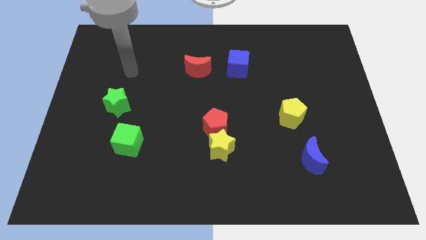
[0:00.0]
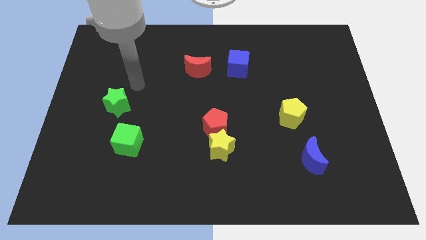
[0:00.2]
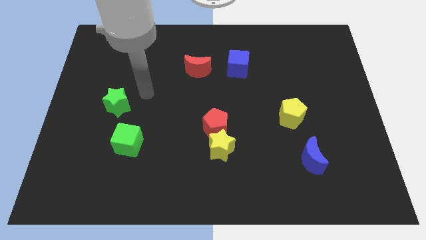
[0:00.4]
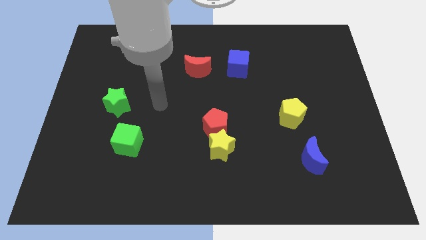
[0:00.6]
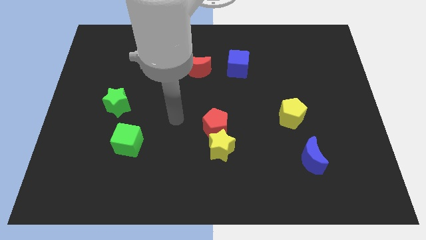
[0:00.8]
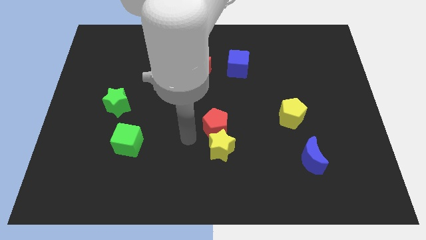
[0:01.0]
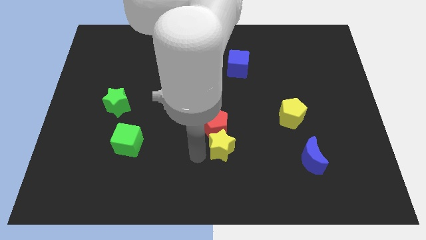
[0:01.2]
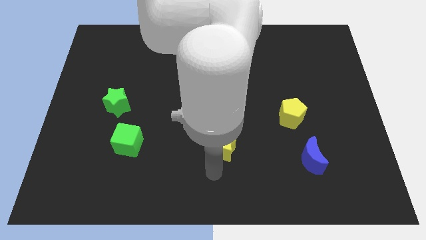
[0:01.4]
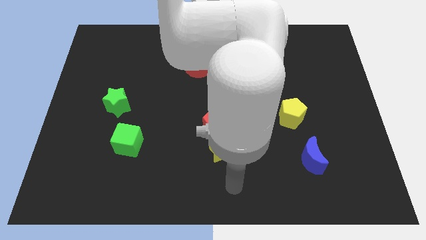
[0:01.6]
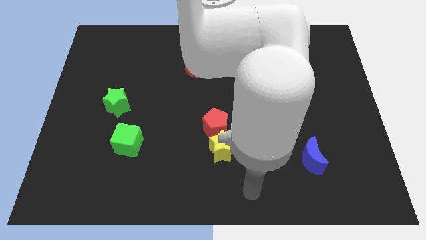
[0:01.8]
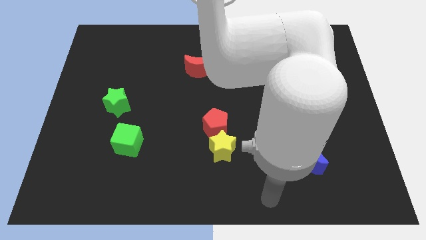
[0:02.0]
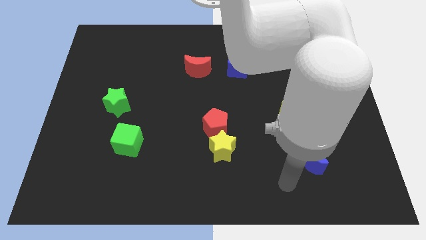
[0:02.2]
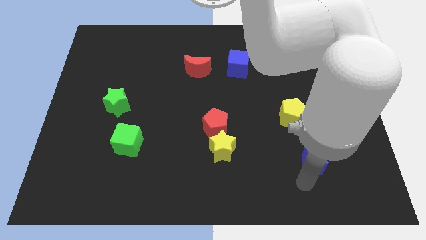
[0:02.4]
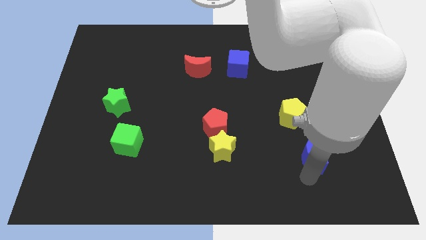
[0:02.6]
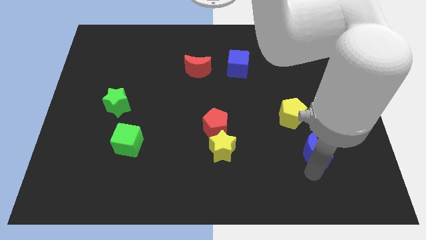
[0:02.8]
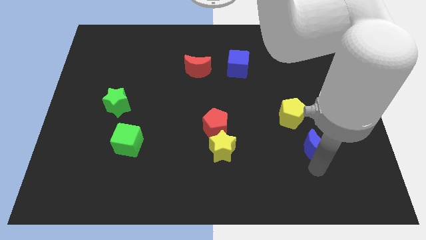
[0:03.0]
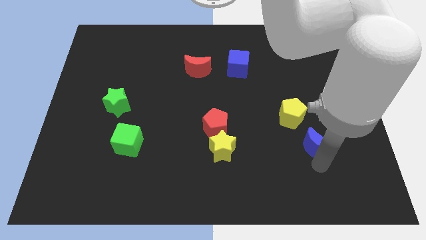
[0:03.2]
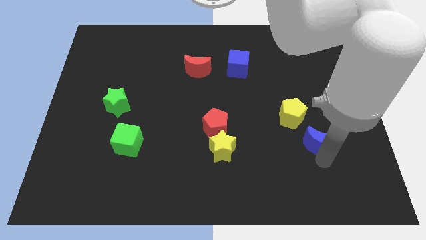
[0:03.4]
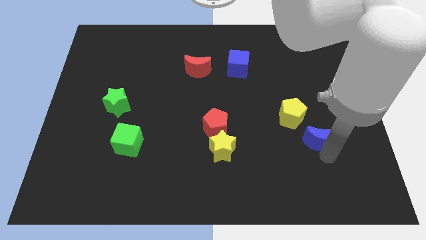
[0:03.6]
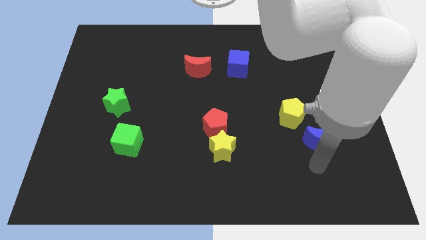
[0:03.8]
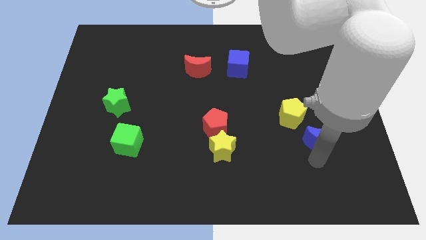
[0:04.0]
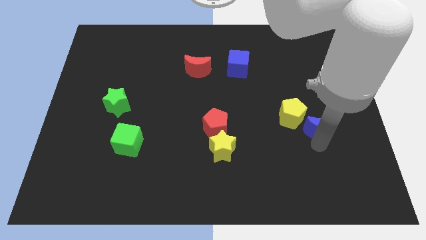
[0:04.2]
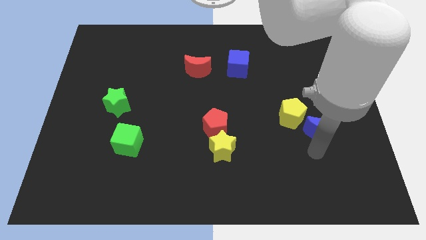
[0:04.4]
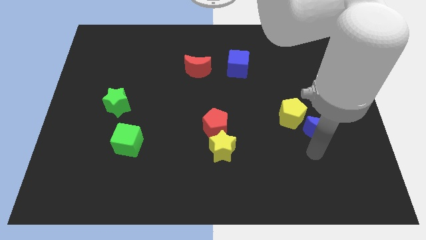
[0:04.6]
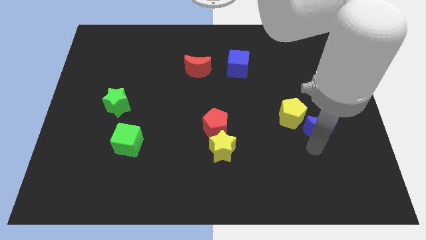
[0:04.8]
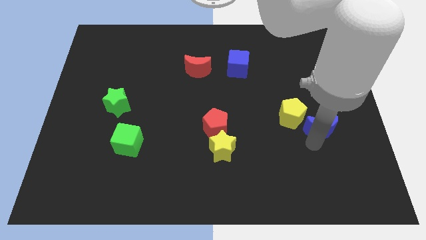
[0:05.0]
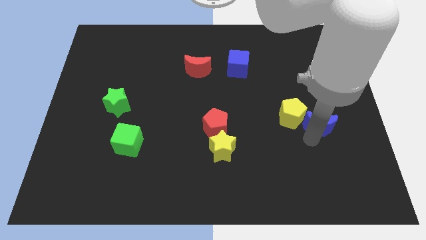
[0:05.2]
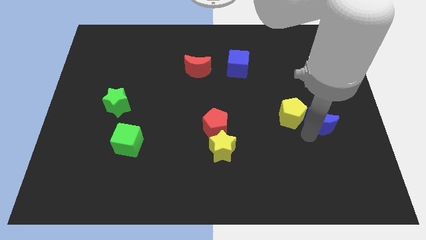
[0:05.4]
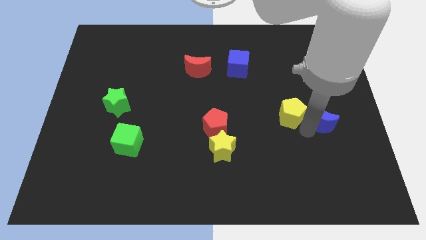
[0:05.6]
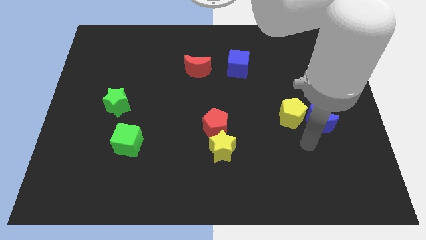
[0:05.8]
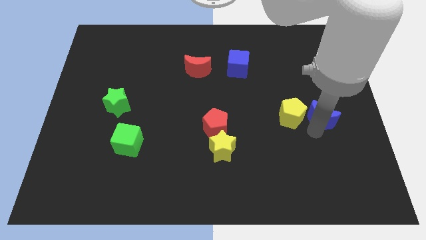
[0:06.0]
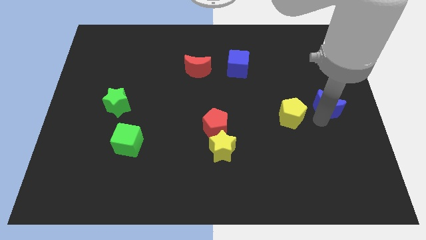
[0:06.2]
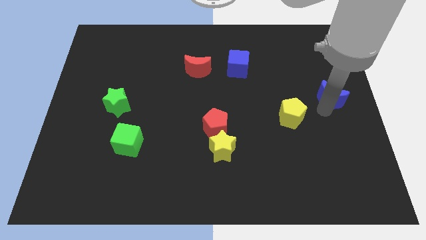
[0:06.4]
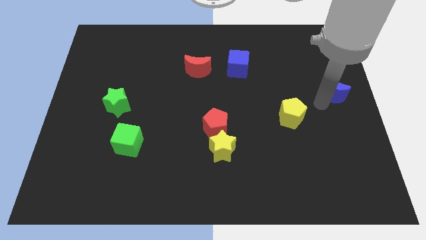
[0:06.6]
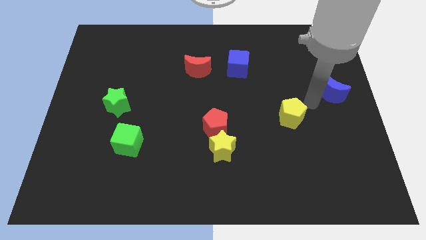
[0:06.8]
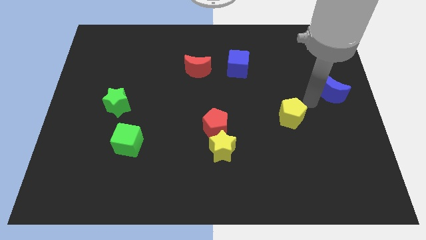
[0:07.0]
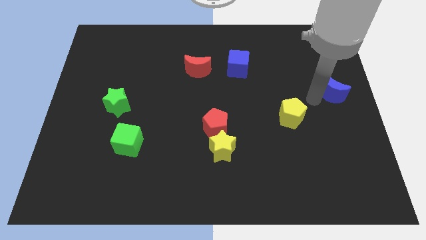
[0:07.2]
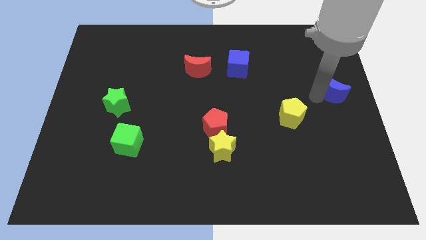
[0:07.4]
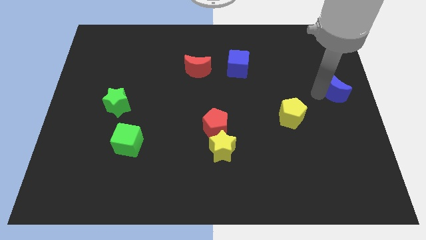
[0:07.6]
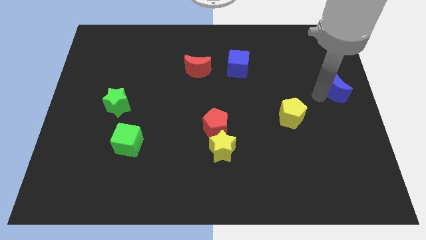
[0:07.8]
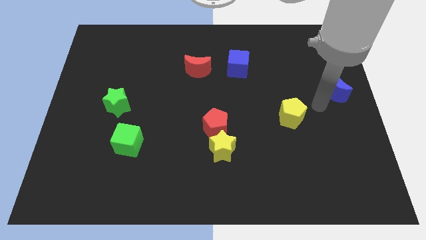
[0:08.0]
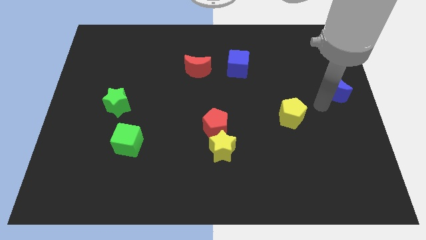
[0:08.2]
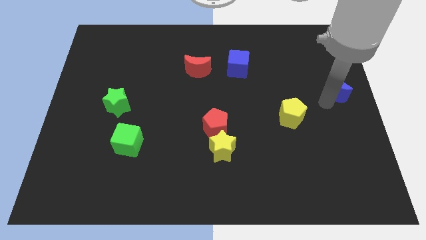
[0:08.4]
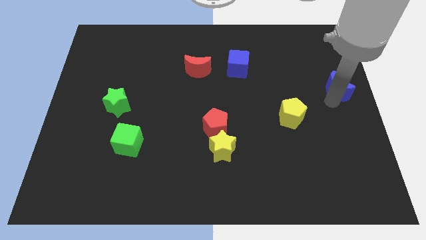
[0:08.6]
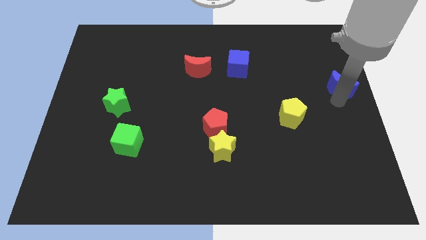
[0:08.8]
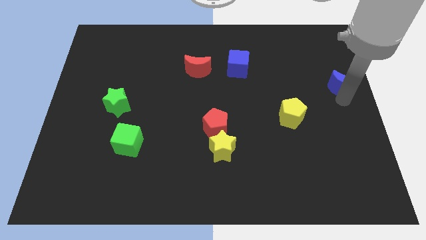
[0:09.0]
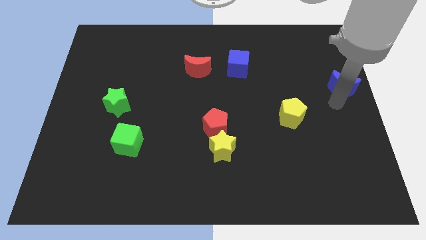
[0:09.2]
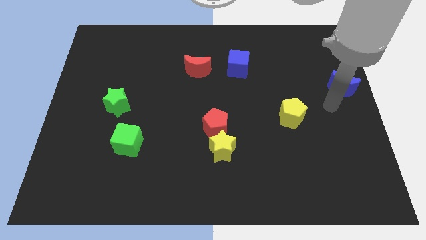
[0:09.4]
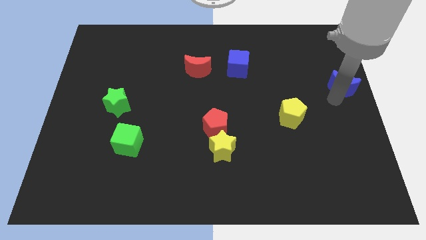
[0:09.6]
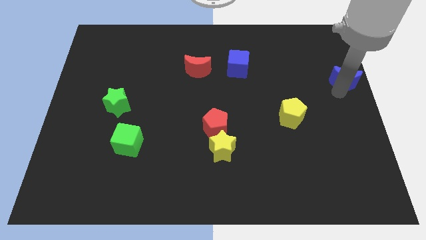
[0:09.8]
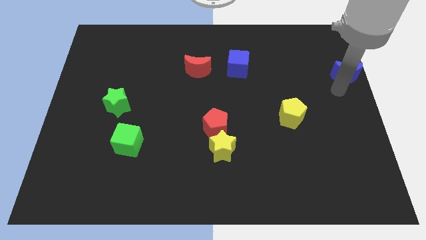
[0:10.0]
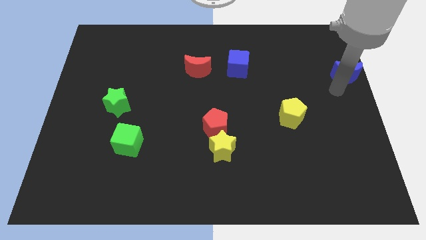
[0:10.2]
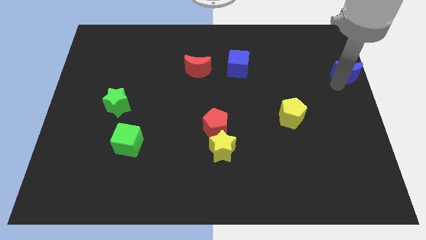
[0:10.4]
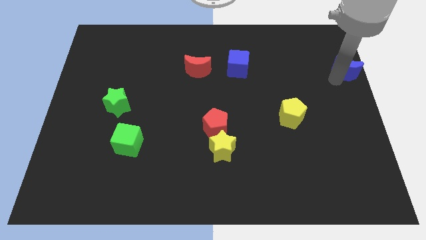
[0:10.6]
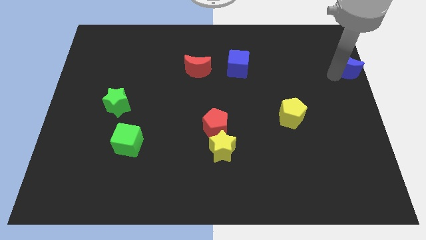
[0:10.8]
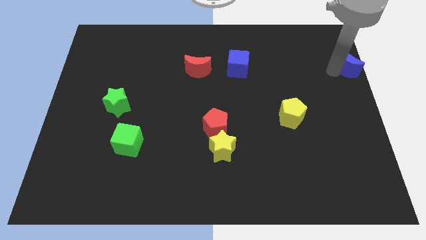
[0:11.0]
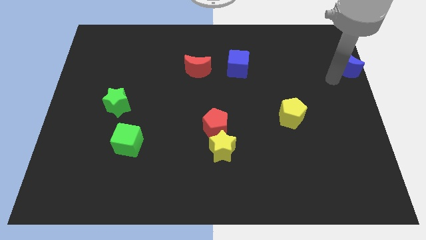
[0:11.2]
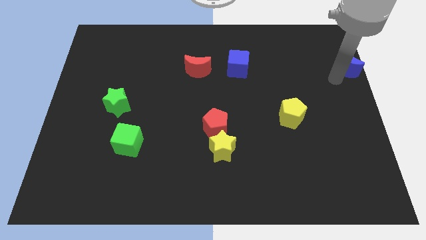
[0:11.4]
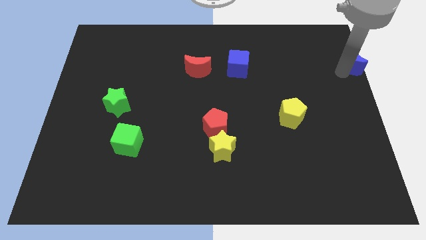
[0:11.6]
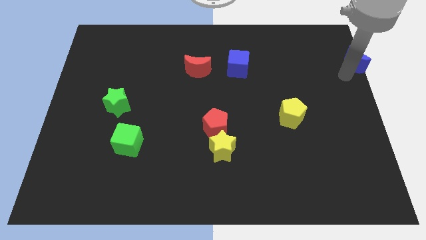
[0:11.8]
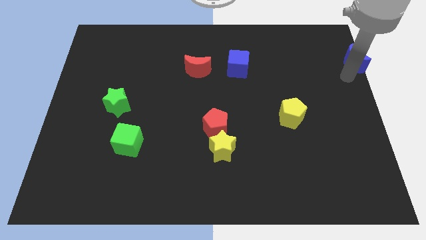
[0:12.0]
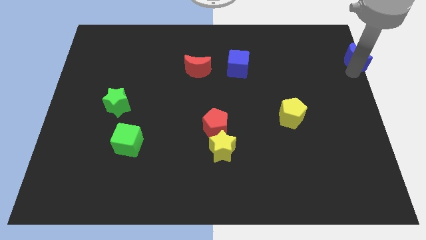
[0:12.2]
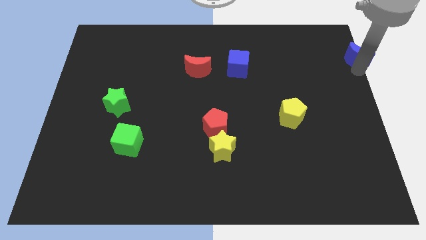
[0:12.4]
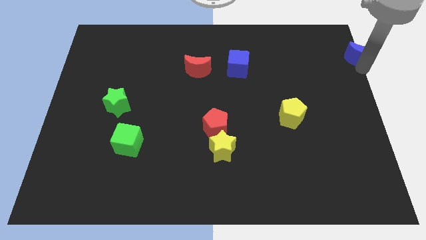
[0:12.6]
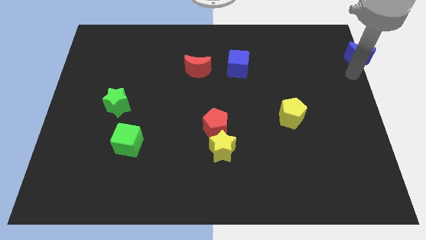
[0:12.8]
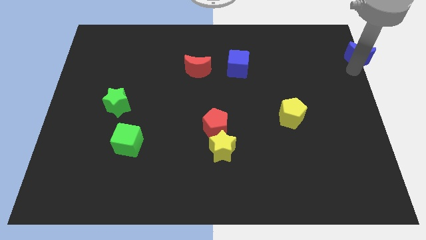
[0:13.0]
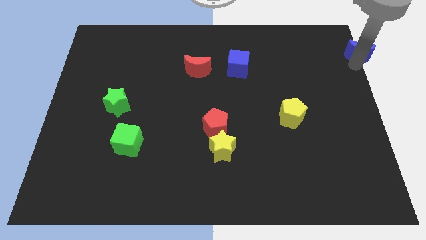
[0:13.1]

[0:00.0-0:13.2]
put the blue moon to the upper right corner

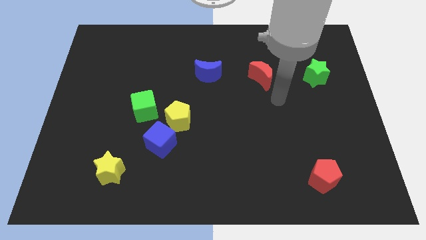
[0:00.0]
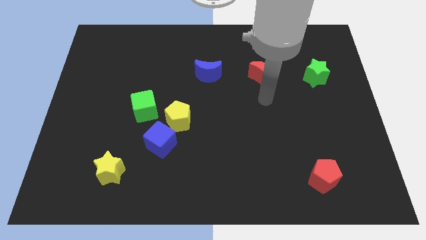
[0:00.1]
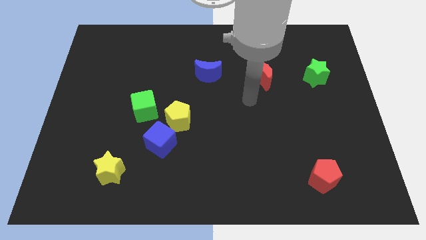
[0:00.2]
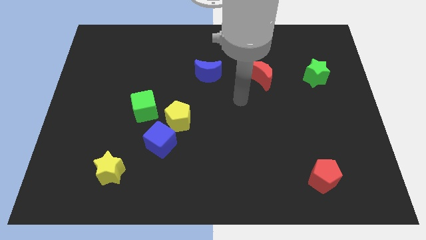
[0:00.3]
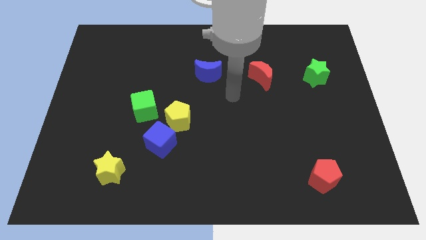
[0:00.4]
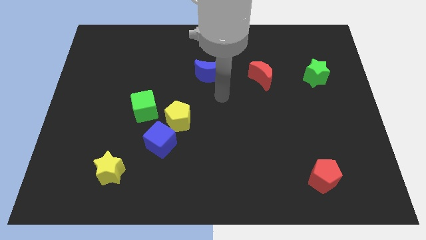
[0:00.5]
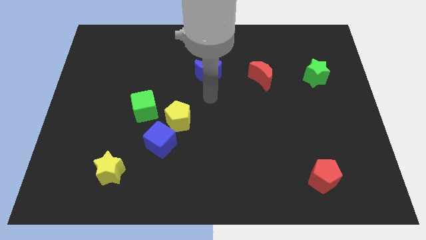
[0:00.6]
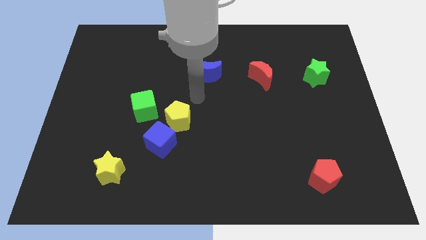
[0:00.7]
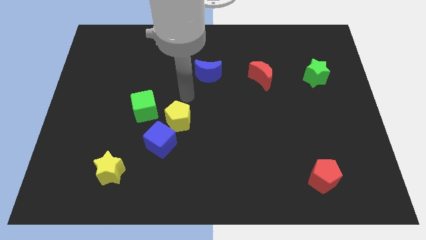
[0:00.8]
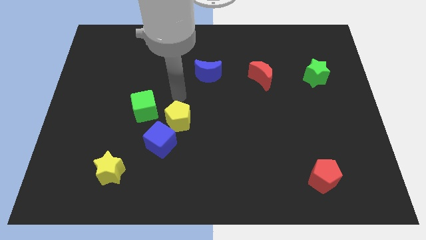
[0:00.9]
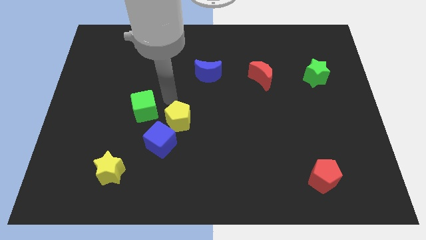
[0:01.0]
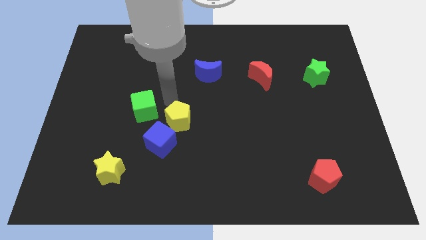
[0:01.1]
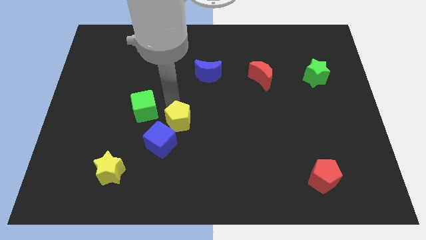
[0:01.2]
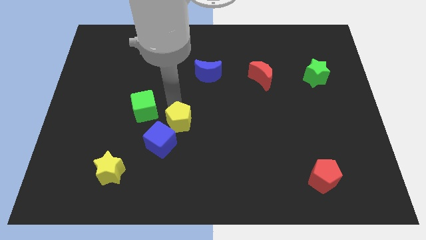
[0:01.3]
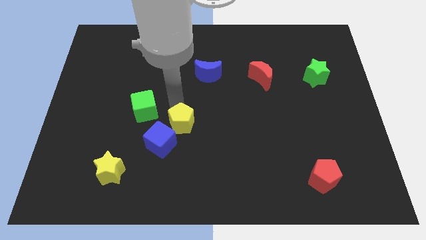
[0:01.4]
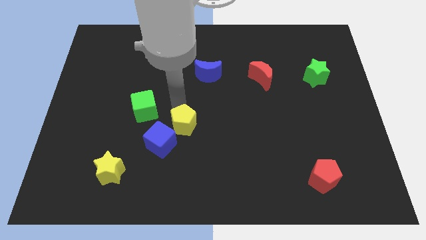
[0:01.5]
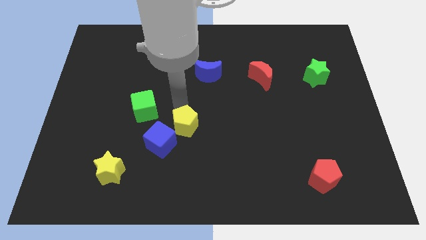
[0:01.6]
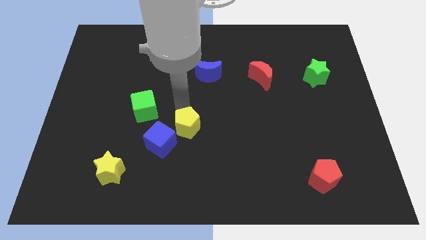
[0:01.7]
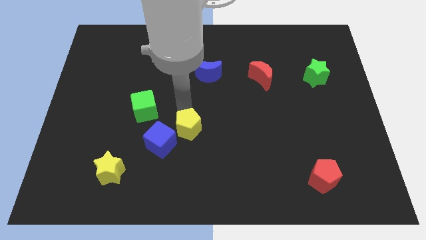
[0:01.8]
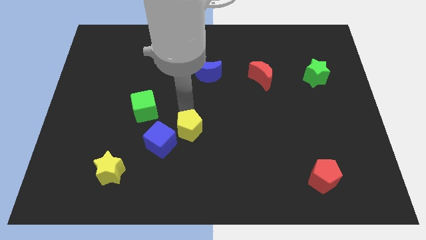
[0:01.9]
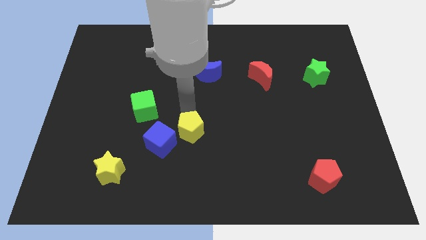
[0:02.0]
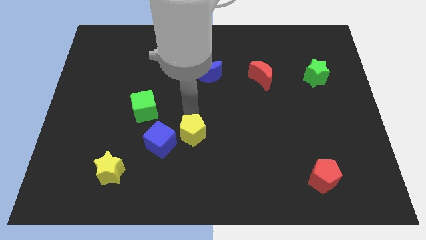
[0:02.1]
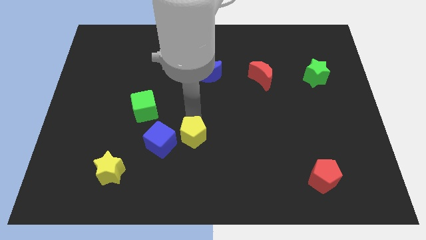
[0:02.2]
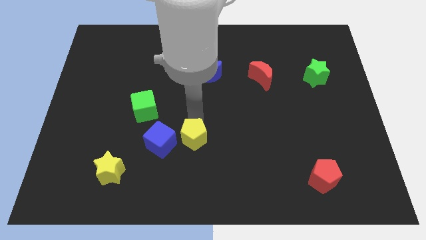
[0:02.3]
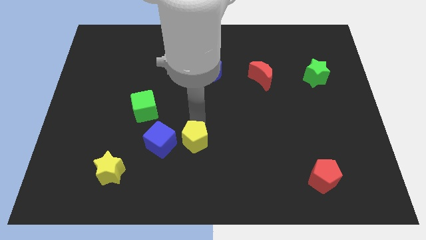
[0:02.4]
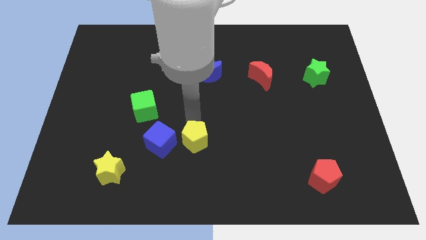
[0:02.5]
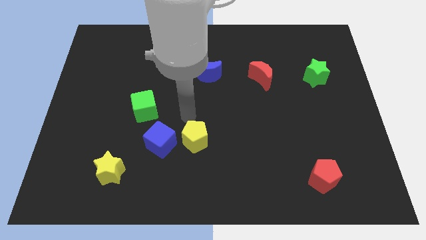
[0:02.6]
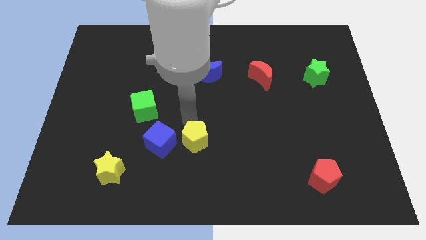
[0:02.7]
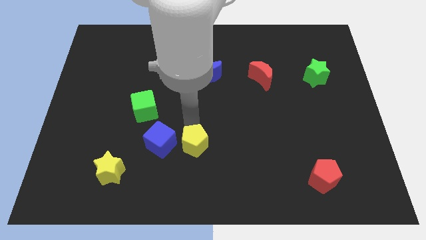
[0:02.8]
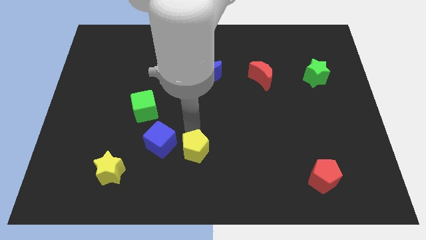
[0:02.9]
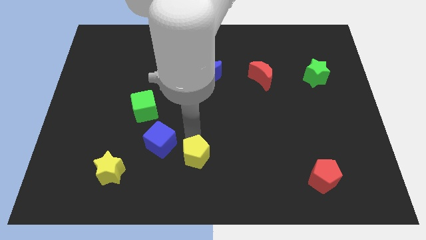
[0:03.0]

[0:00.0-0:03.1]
put the yellow pentagon to the bottom
